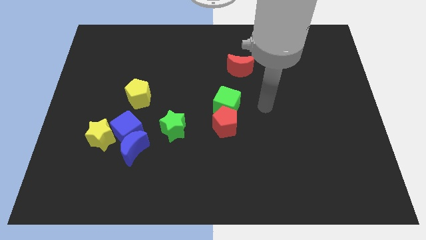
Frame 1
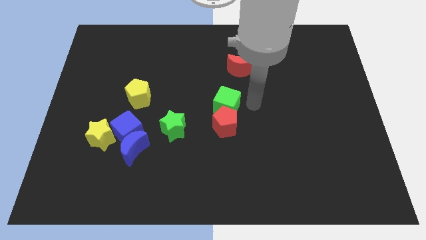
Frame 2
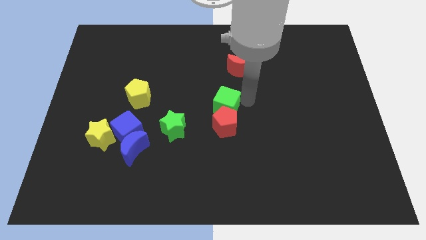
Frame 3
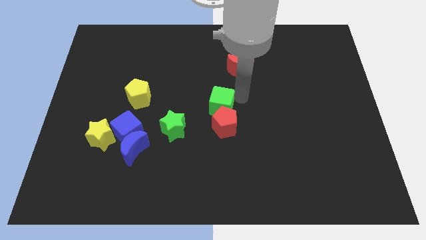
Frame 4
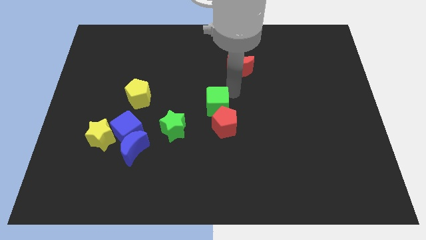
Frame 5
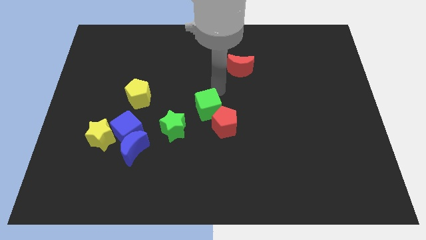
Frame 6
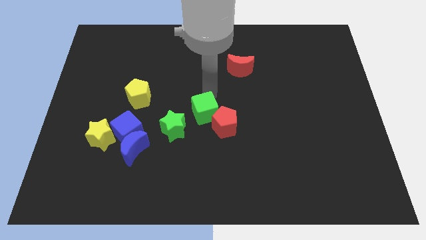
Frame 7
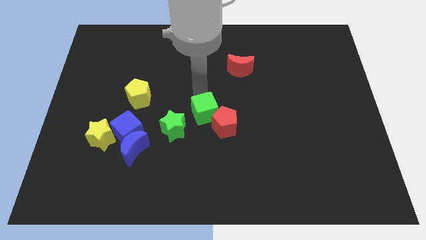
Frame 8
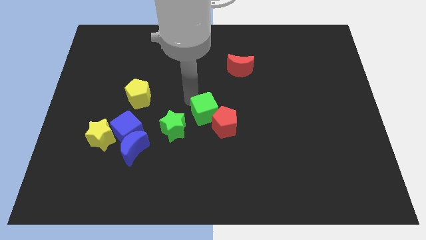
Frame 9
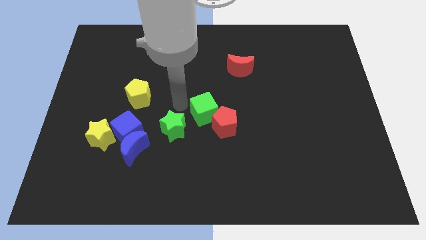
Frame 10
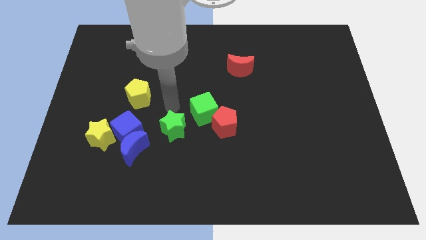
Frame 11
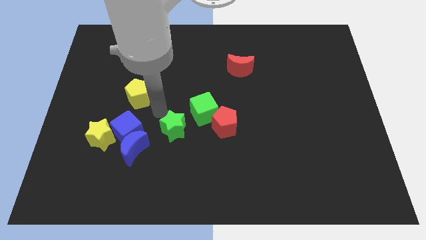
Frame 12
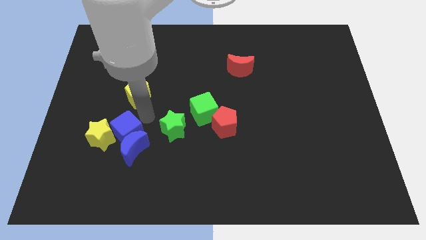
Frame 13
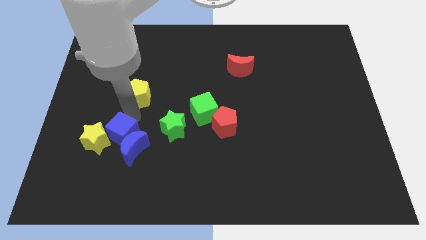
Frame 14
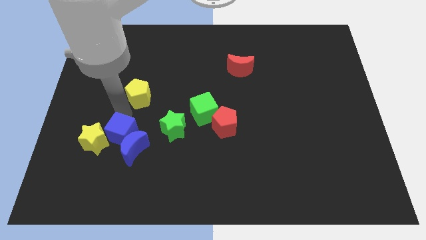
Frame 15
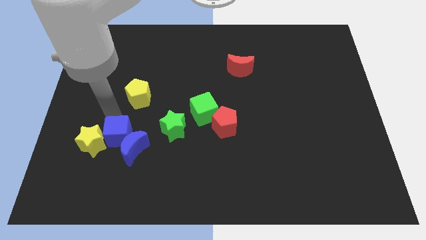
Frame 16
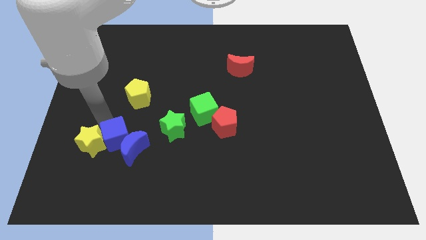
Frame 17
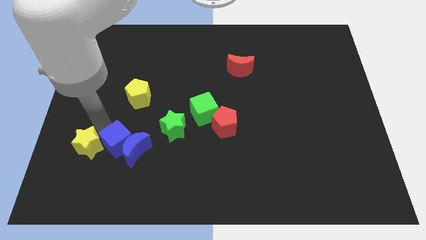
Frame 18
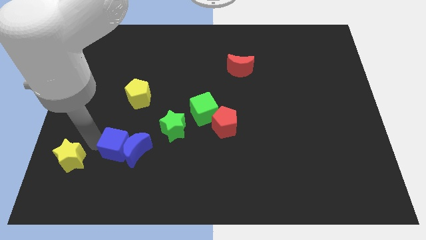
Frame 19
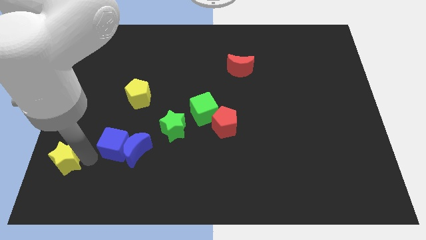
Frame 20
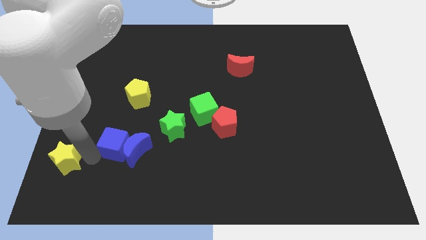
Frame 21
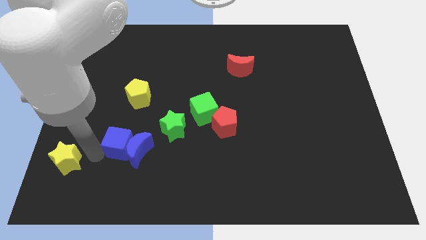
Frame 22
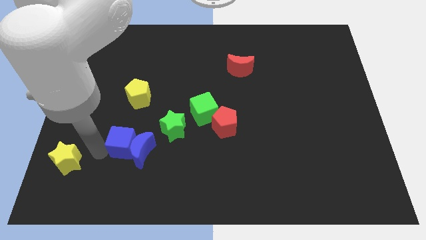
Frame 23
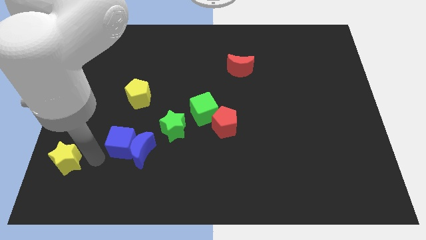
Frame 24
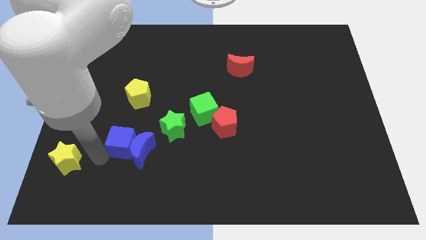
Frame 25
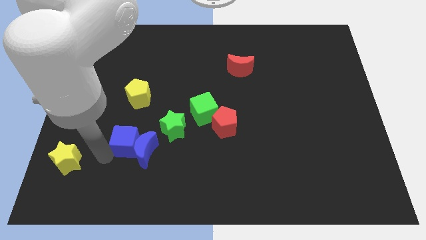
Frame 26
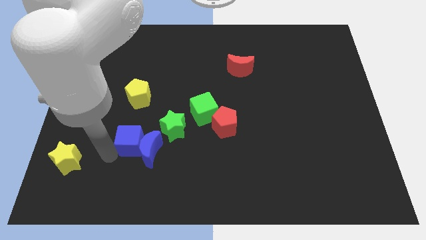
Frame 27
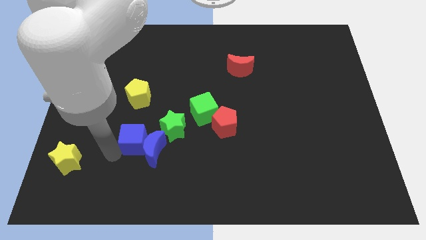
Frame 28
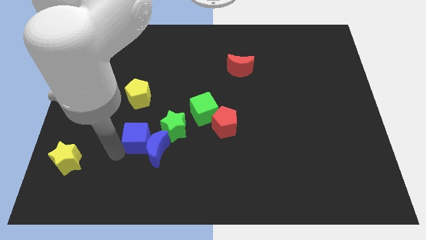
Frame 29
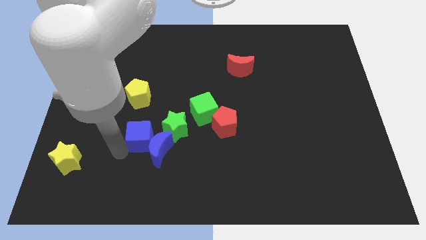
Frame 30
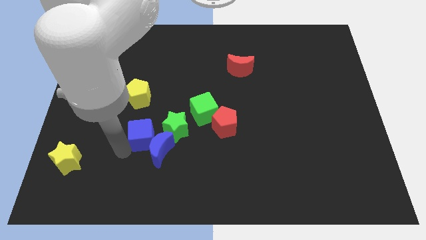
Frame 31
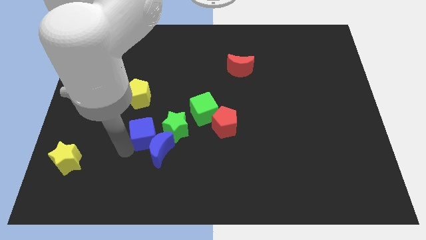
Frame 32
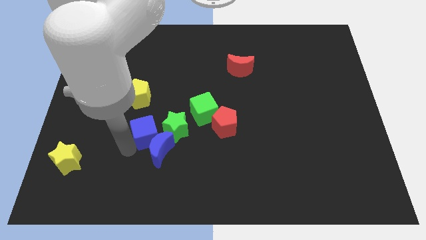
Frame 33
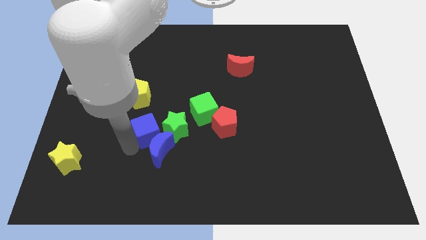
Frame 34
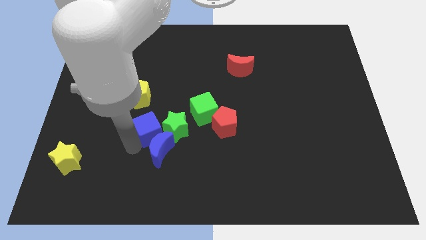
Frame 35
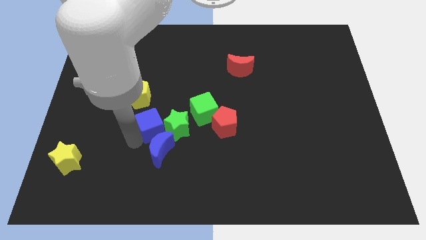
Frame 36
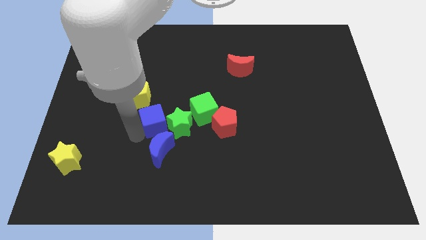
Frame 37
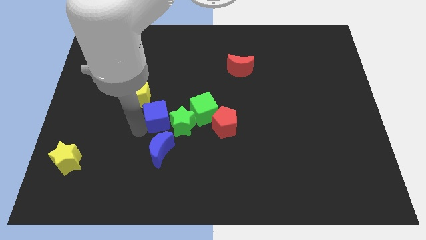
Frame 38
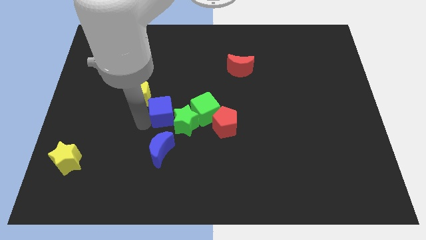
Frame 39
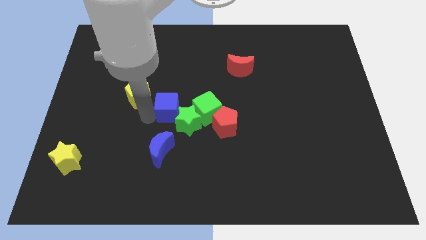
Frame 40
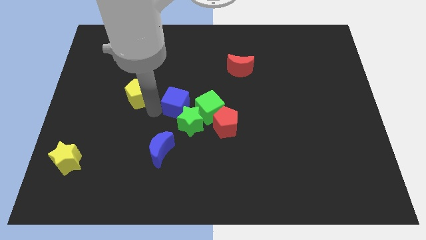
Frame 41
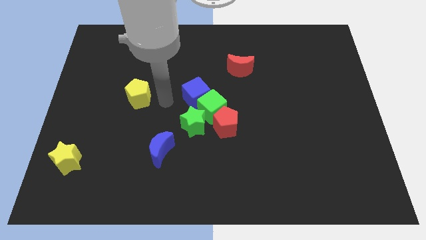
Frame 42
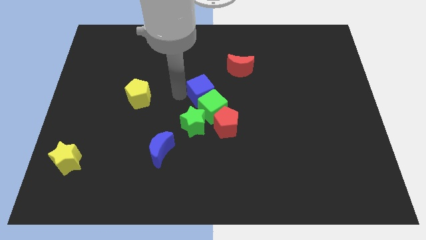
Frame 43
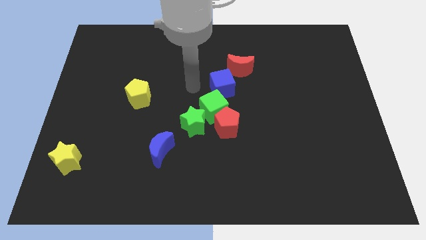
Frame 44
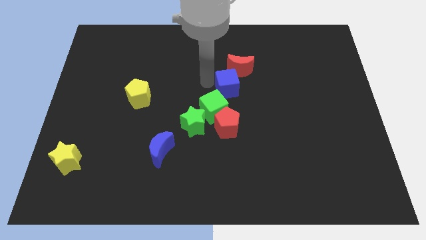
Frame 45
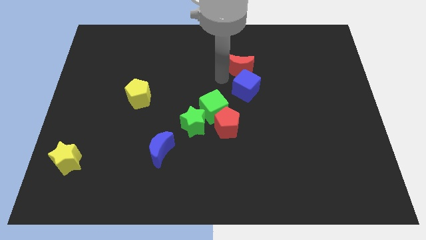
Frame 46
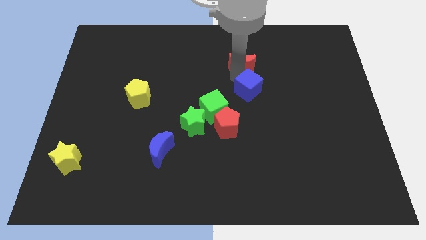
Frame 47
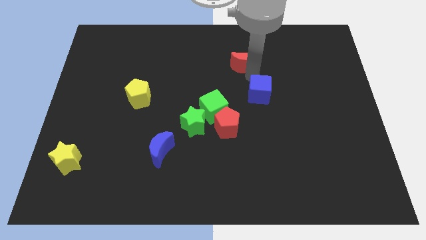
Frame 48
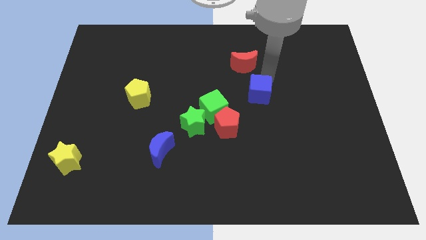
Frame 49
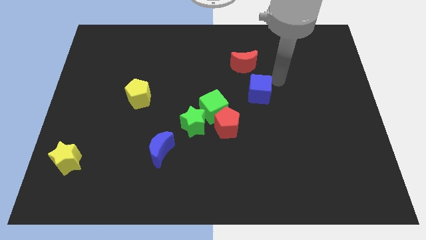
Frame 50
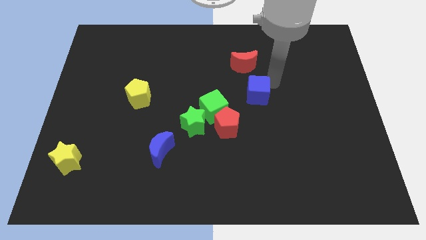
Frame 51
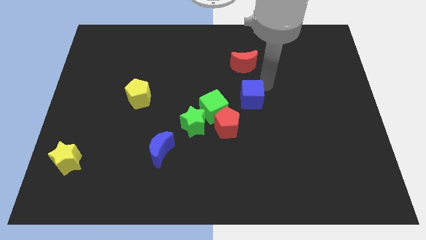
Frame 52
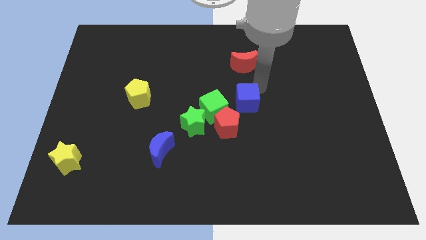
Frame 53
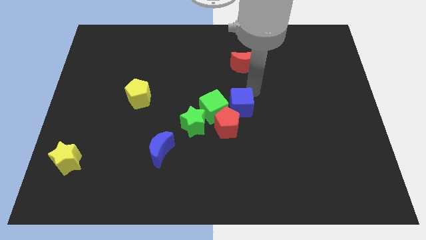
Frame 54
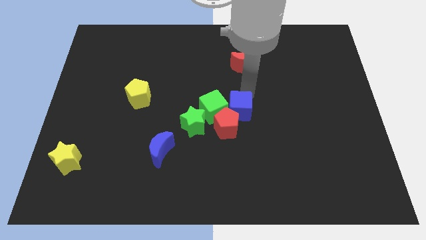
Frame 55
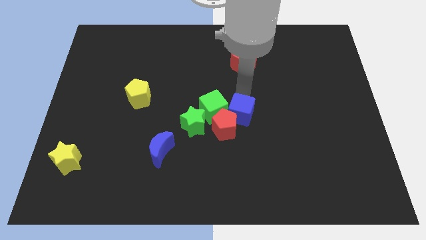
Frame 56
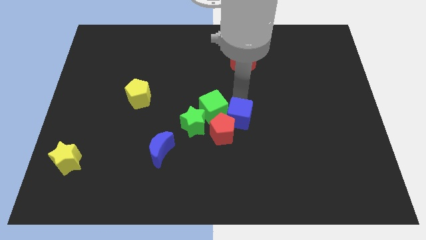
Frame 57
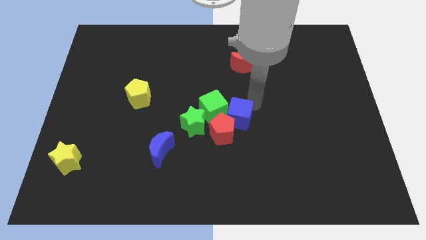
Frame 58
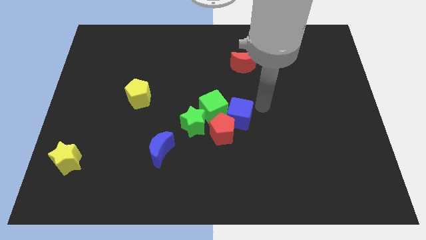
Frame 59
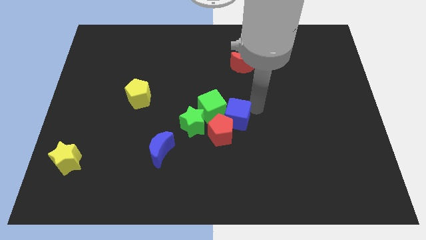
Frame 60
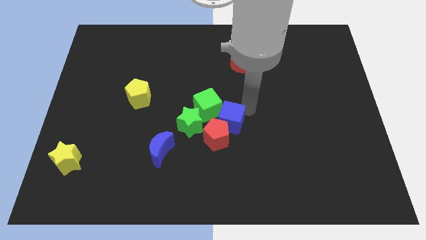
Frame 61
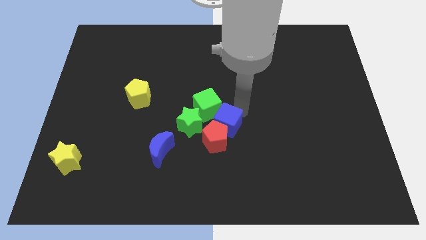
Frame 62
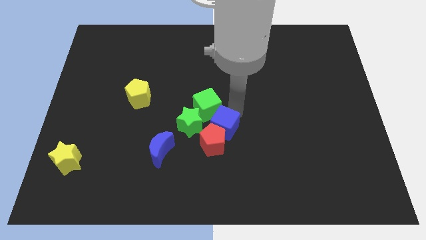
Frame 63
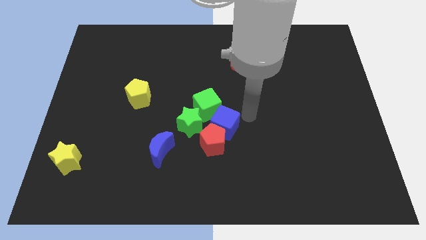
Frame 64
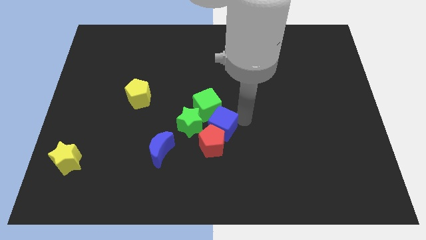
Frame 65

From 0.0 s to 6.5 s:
put the blue cube to the bottom right of the green star

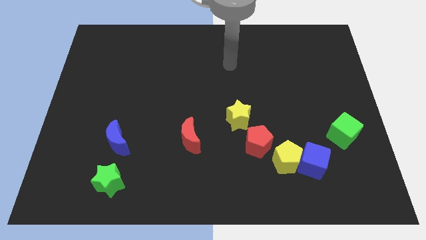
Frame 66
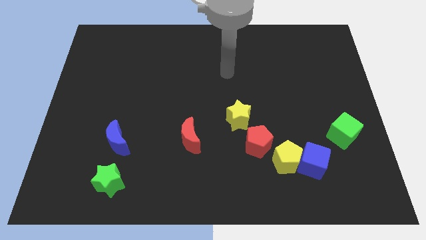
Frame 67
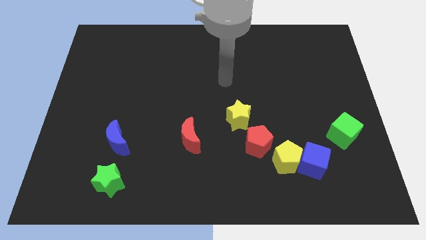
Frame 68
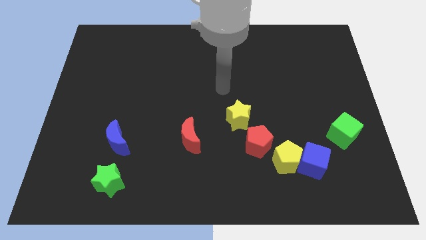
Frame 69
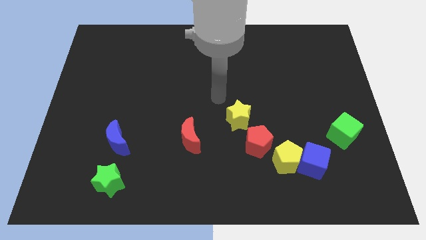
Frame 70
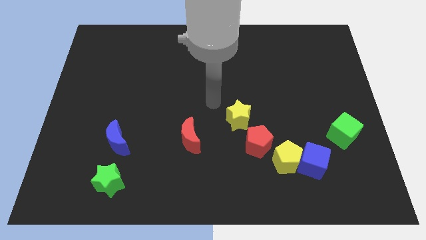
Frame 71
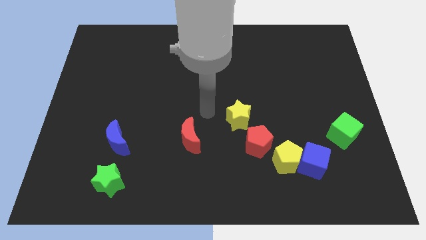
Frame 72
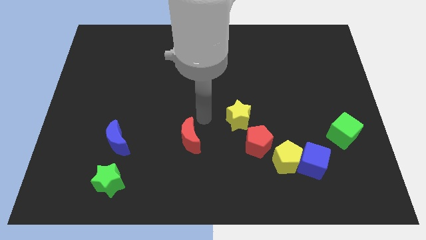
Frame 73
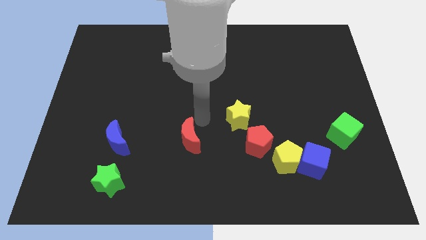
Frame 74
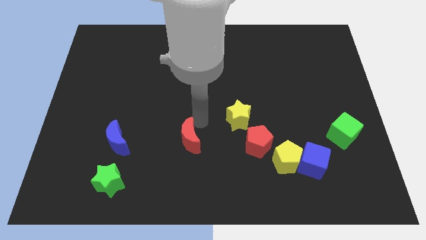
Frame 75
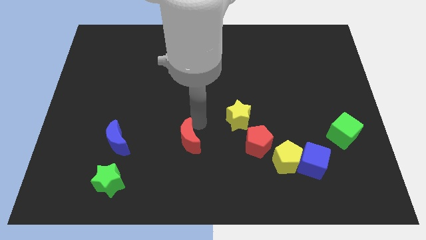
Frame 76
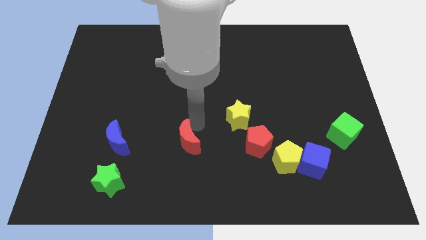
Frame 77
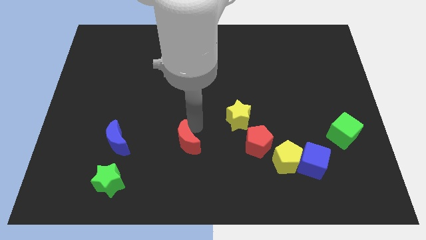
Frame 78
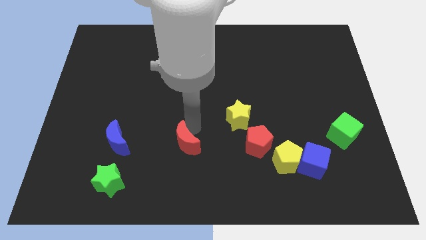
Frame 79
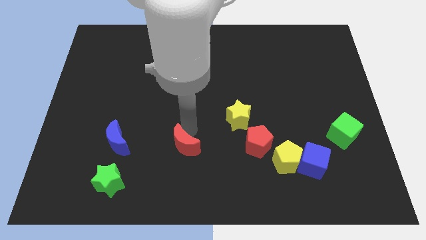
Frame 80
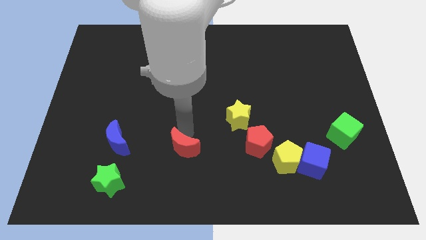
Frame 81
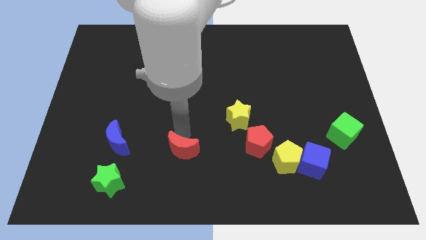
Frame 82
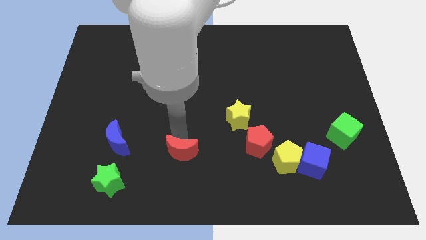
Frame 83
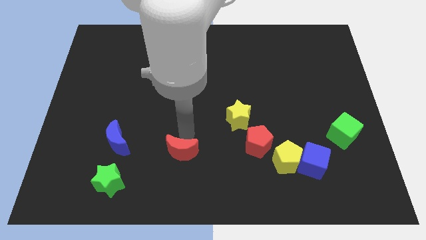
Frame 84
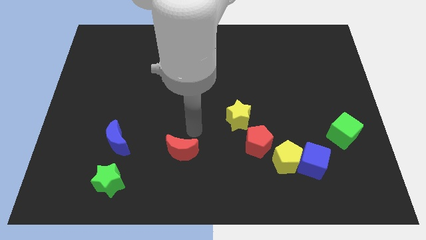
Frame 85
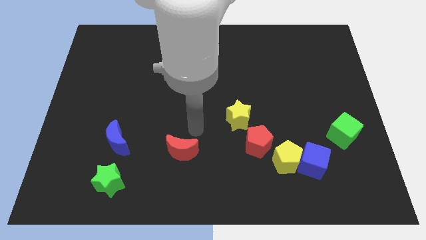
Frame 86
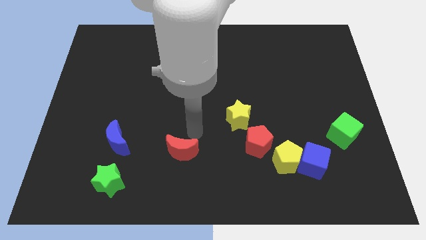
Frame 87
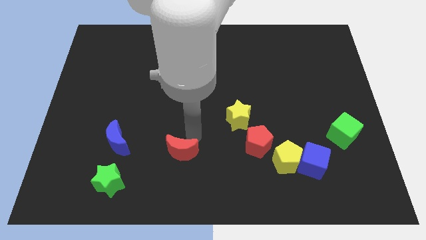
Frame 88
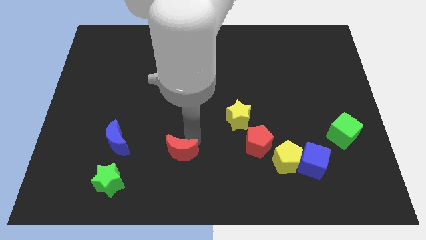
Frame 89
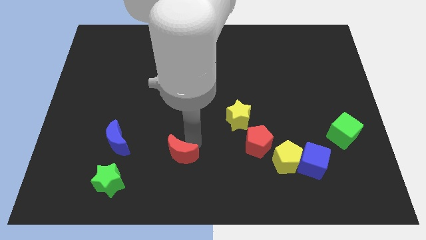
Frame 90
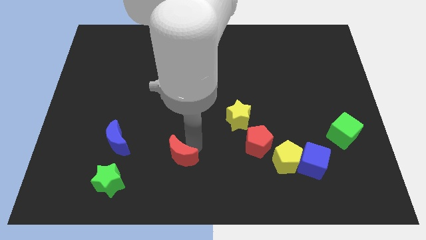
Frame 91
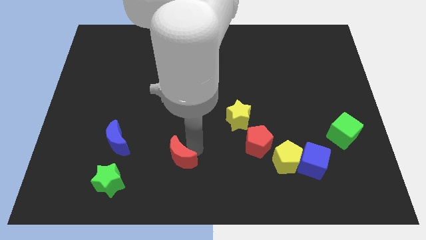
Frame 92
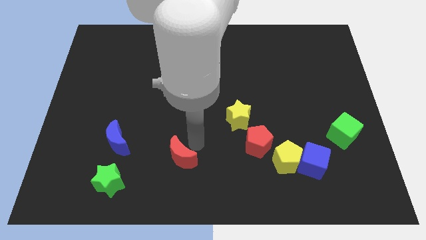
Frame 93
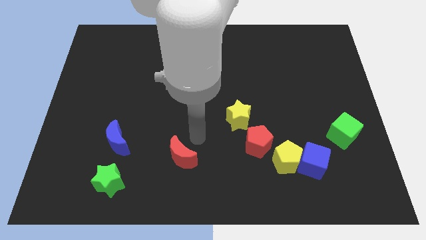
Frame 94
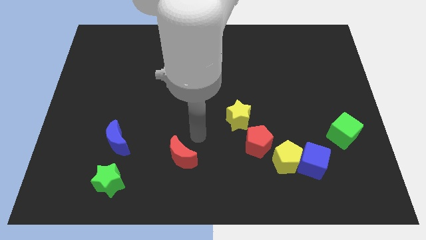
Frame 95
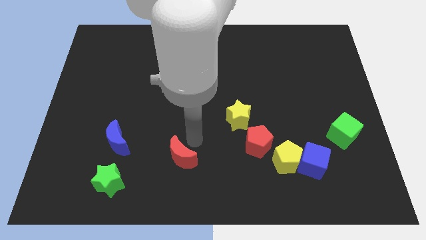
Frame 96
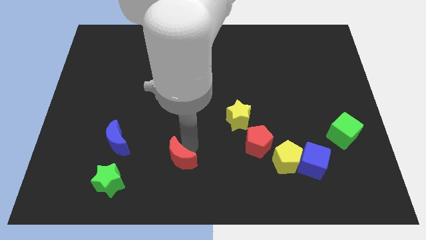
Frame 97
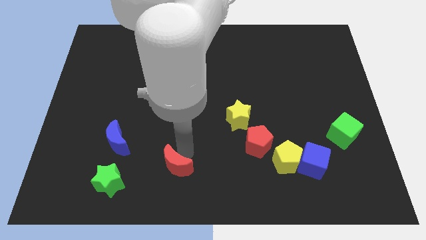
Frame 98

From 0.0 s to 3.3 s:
slide the red moon to the right side of the green star
